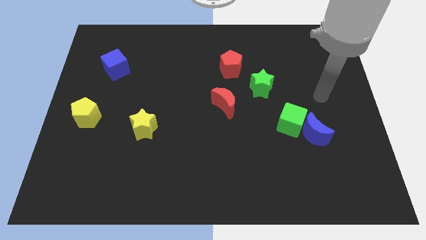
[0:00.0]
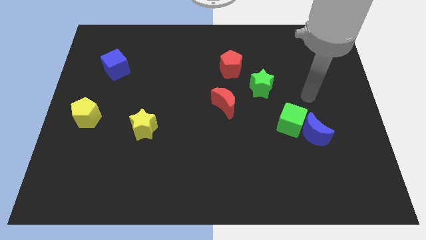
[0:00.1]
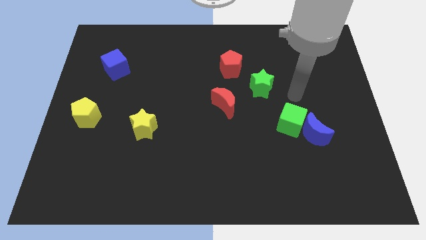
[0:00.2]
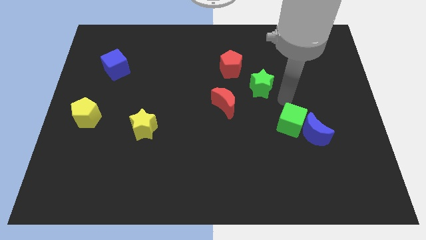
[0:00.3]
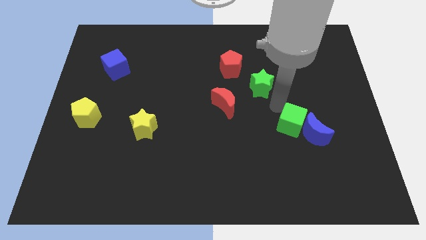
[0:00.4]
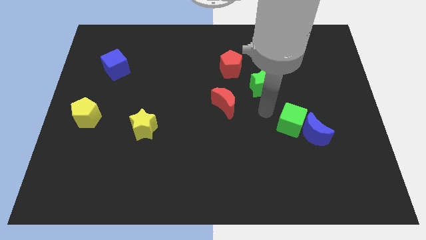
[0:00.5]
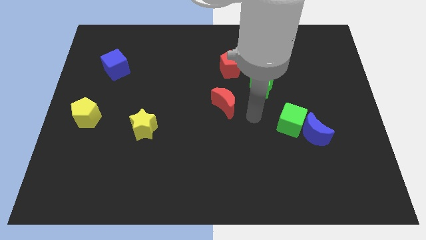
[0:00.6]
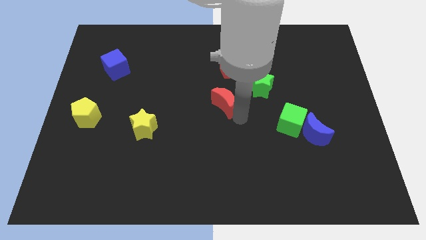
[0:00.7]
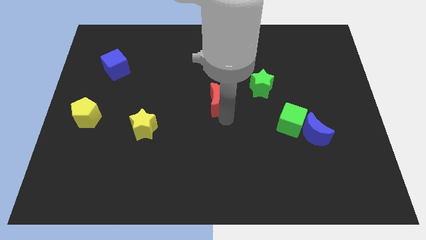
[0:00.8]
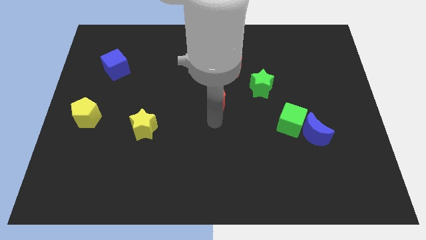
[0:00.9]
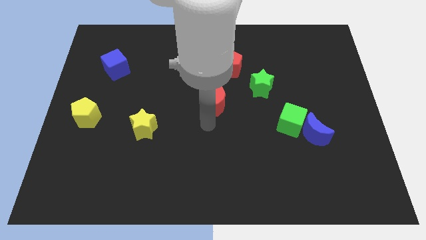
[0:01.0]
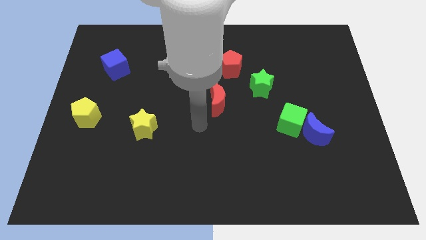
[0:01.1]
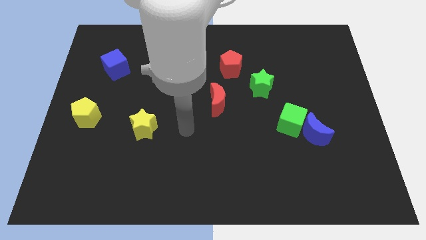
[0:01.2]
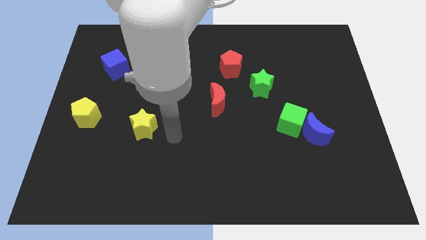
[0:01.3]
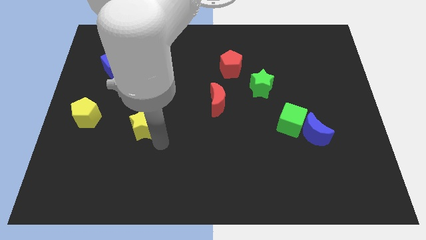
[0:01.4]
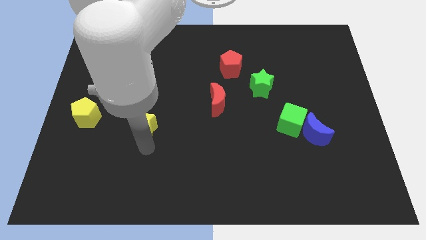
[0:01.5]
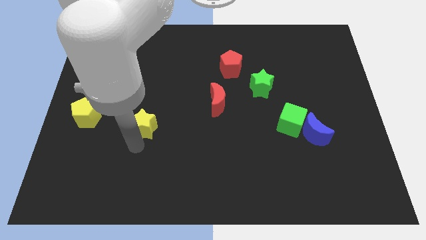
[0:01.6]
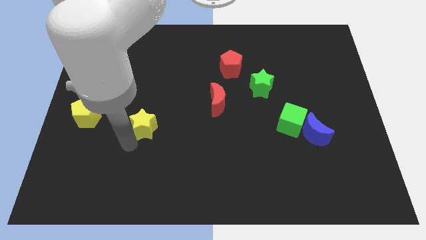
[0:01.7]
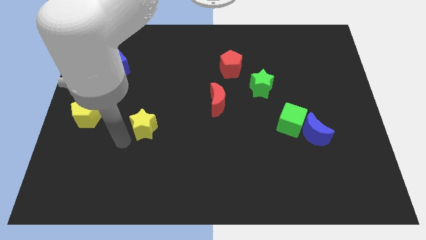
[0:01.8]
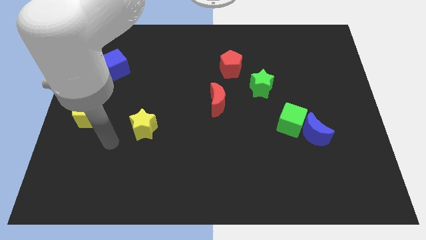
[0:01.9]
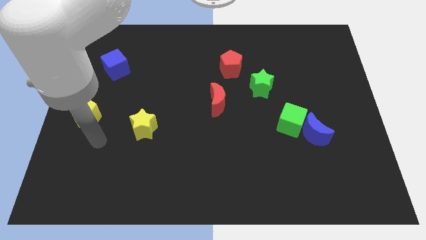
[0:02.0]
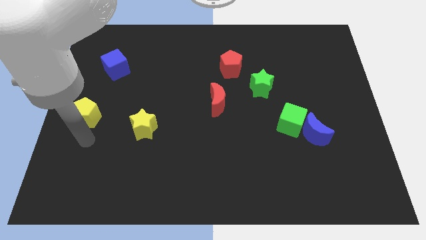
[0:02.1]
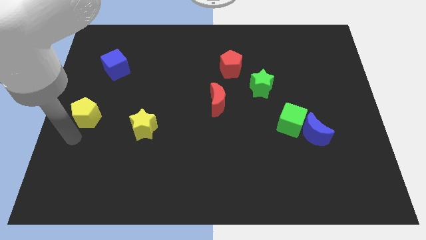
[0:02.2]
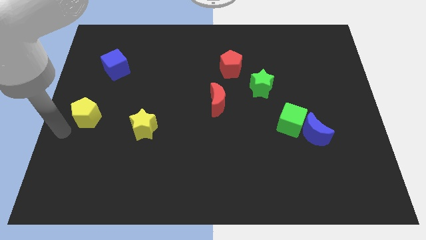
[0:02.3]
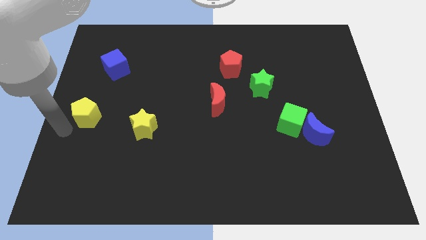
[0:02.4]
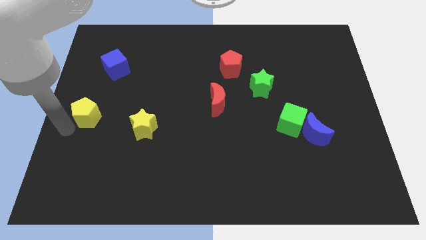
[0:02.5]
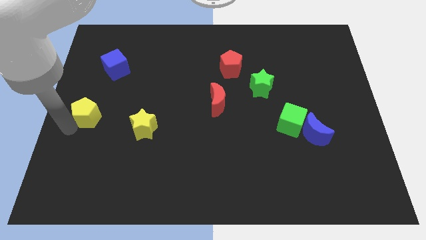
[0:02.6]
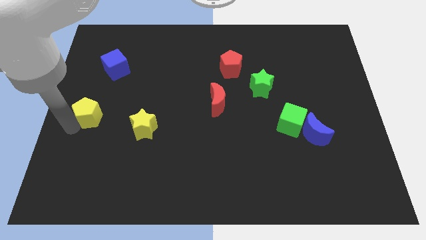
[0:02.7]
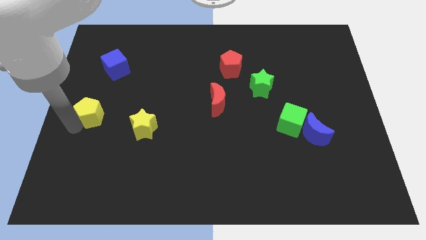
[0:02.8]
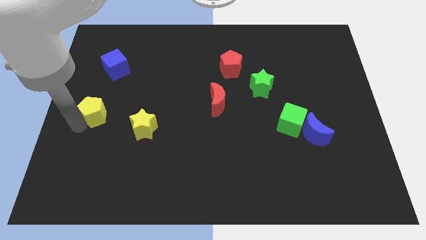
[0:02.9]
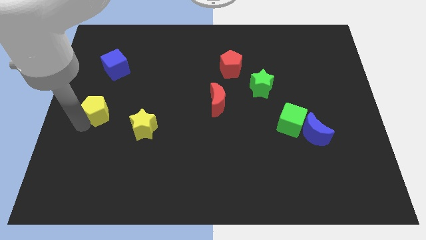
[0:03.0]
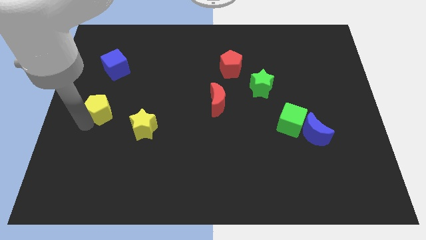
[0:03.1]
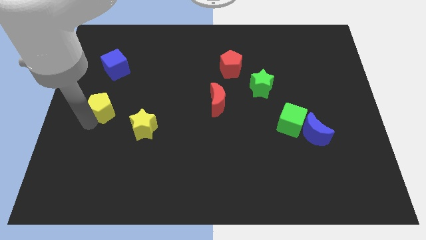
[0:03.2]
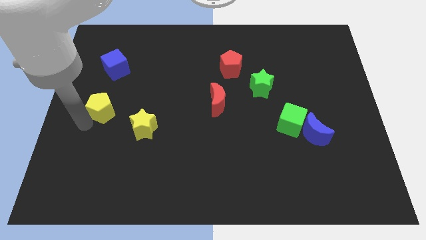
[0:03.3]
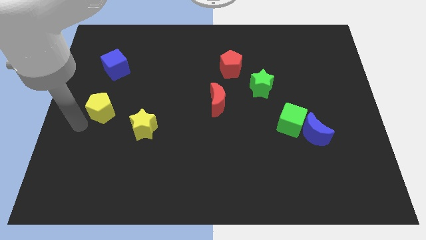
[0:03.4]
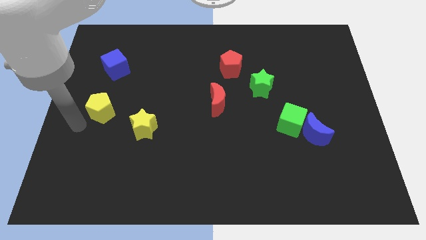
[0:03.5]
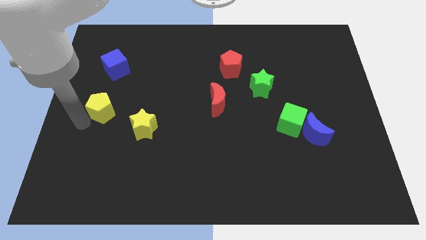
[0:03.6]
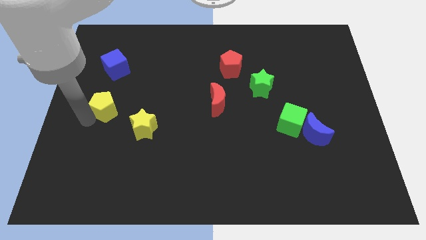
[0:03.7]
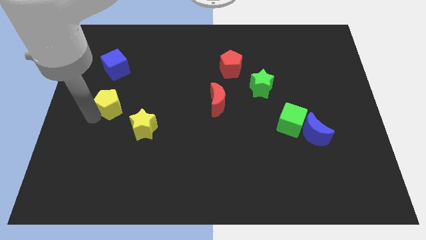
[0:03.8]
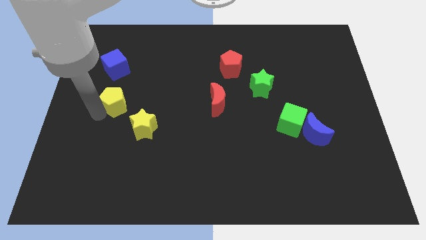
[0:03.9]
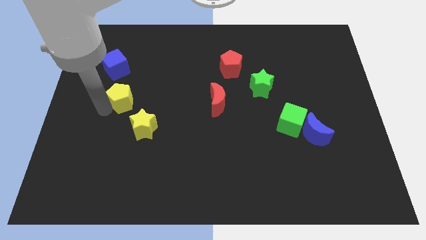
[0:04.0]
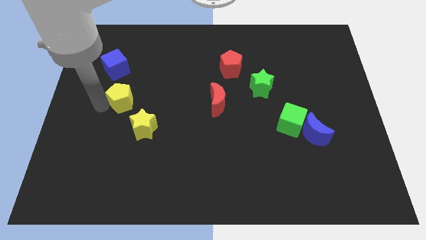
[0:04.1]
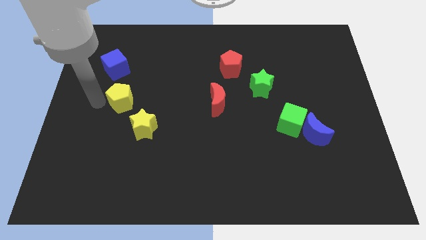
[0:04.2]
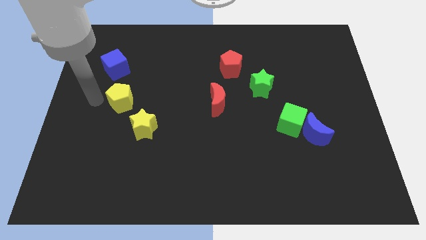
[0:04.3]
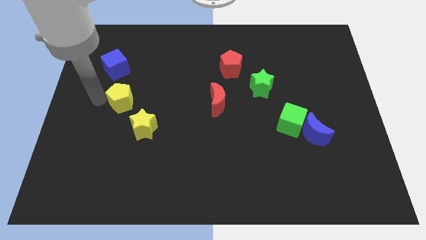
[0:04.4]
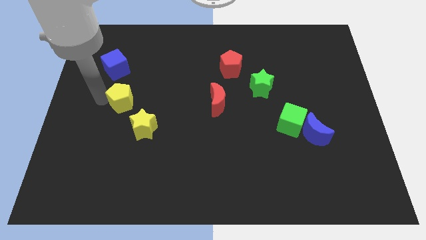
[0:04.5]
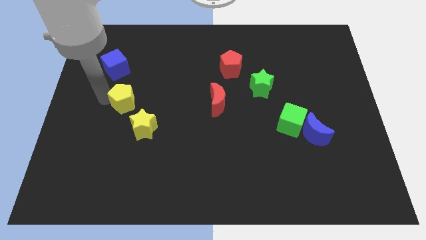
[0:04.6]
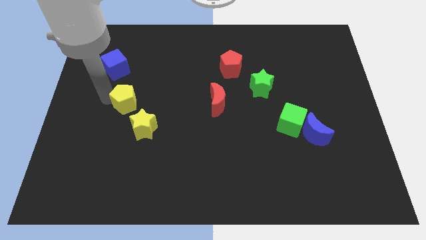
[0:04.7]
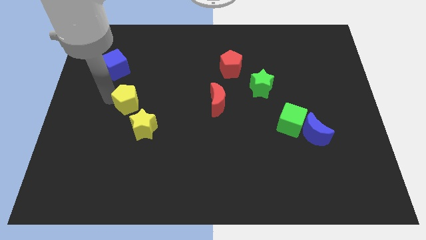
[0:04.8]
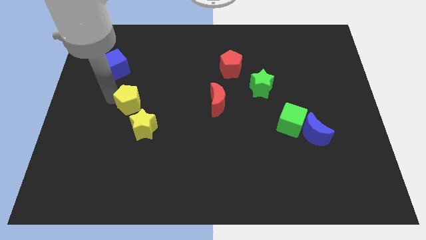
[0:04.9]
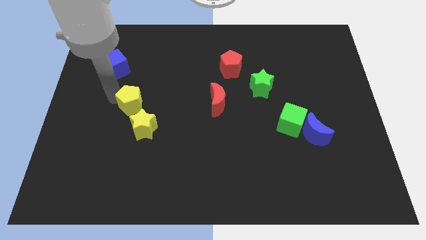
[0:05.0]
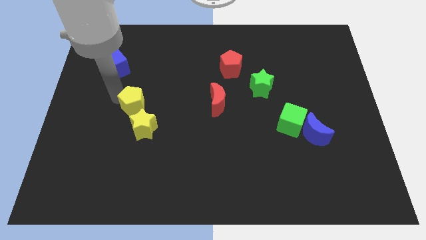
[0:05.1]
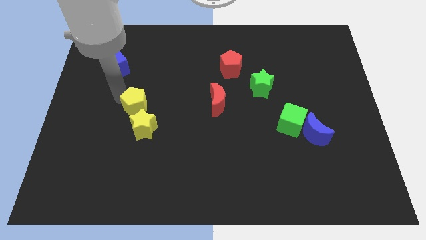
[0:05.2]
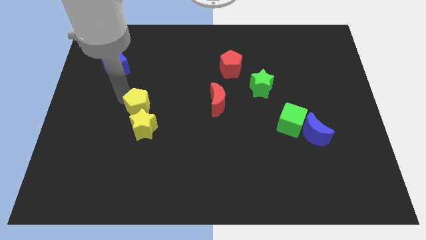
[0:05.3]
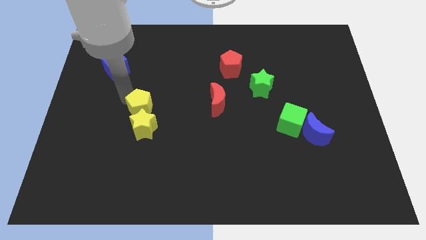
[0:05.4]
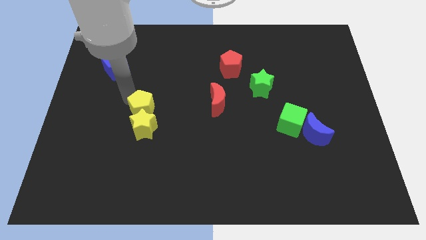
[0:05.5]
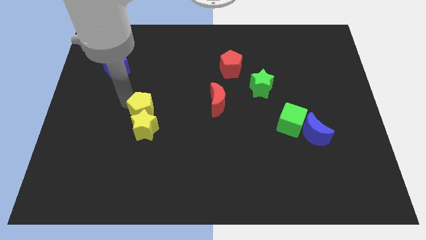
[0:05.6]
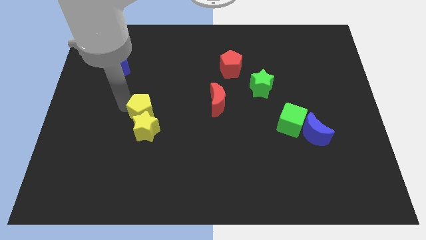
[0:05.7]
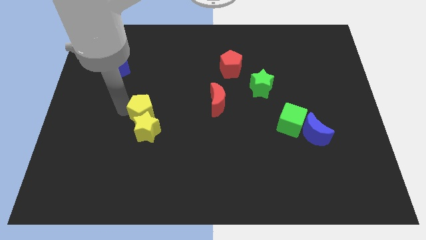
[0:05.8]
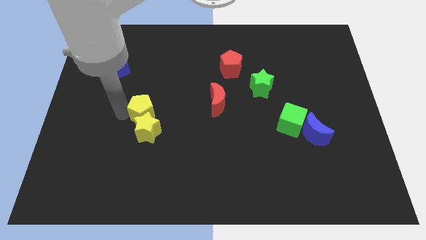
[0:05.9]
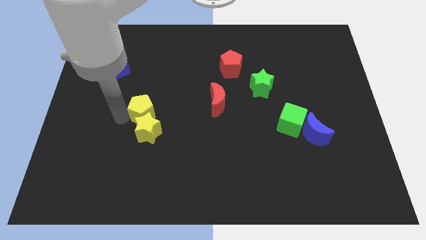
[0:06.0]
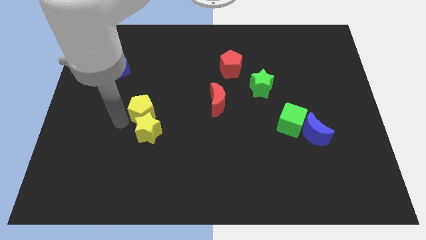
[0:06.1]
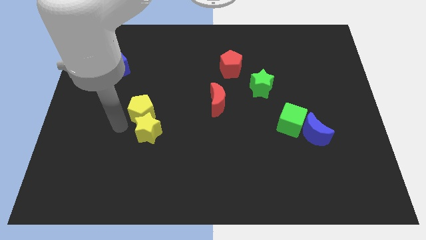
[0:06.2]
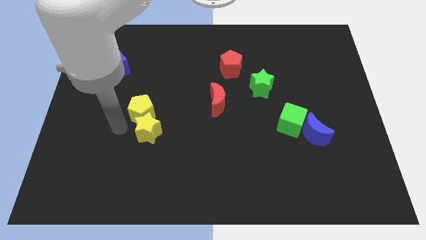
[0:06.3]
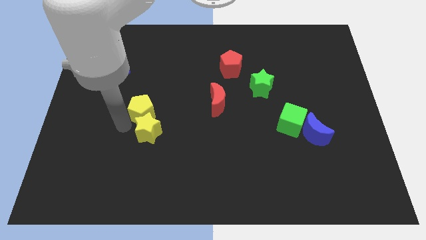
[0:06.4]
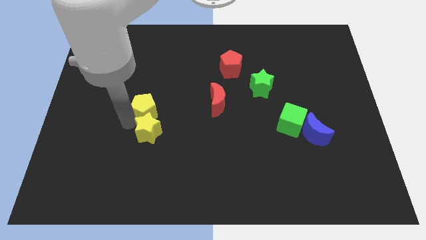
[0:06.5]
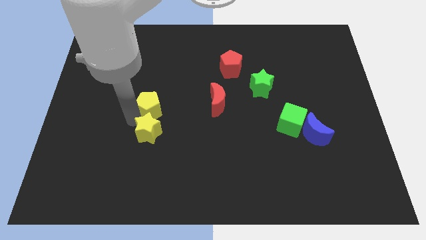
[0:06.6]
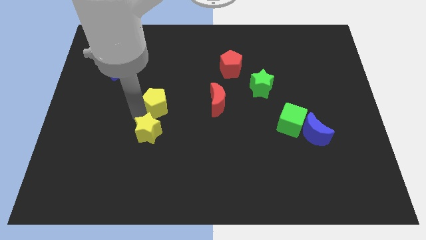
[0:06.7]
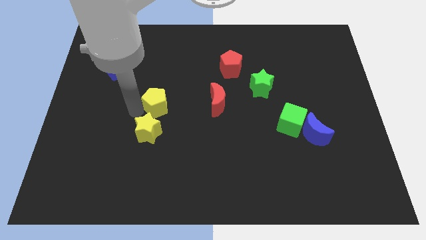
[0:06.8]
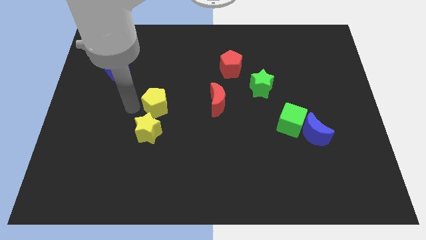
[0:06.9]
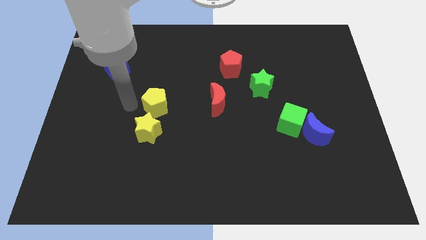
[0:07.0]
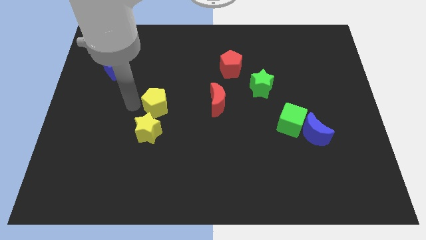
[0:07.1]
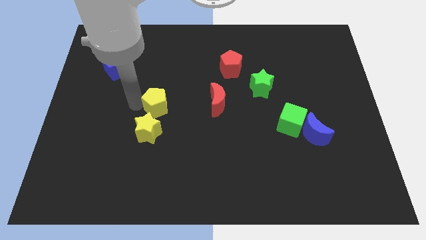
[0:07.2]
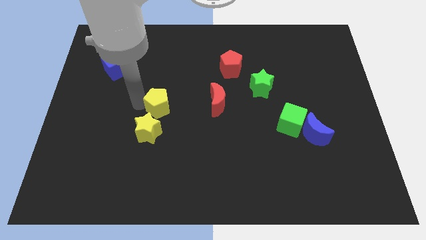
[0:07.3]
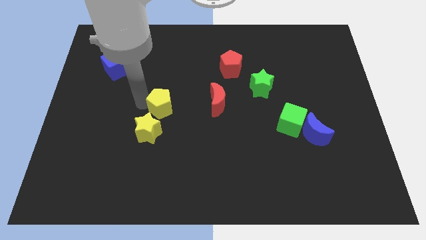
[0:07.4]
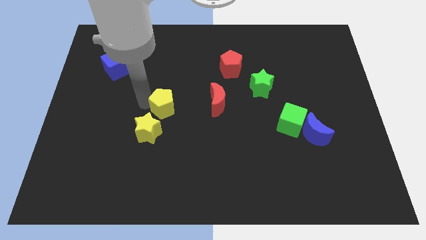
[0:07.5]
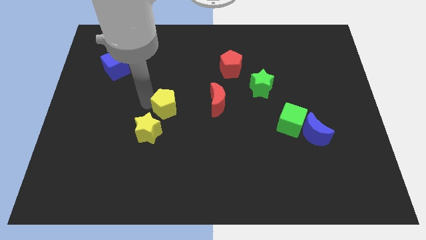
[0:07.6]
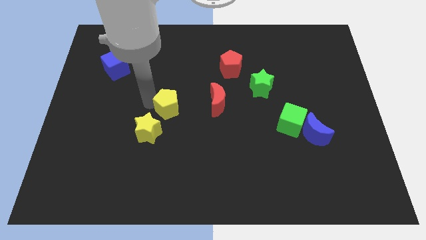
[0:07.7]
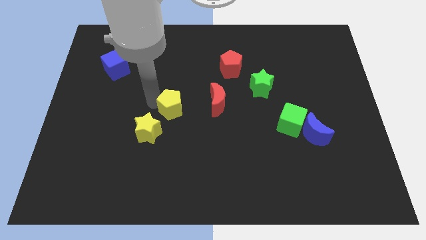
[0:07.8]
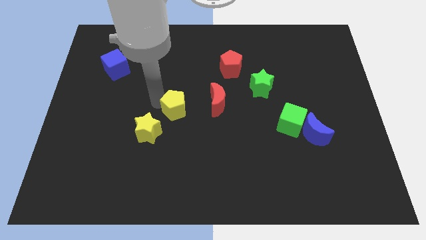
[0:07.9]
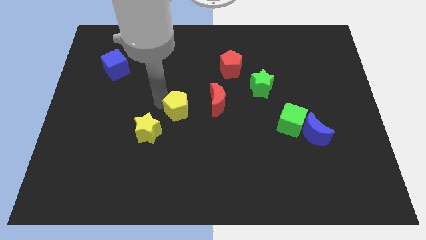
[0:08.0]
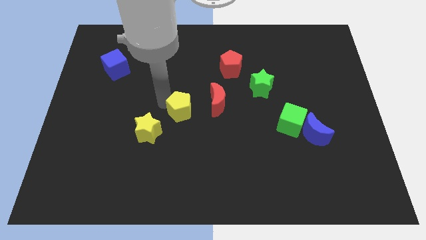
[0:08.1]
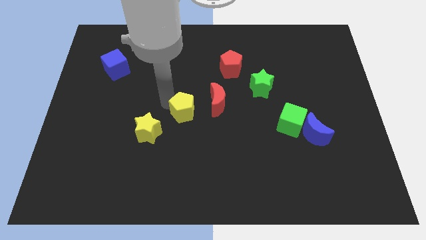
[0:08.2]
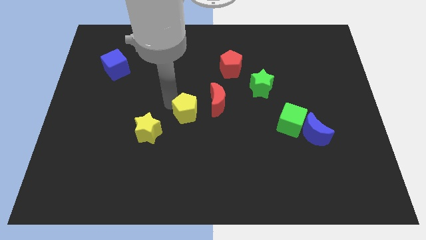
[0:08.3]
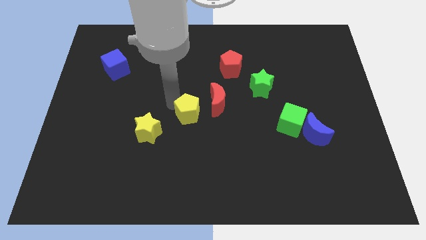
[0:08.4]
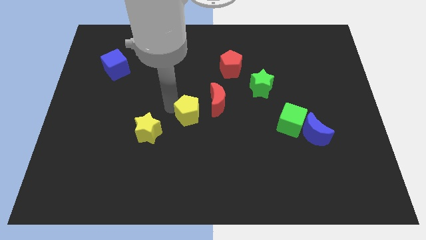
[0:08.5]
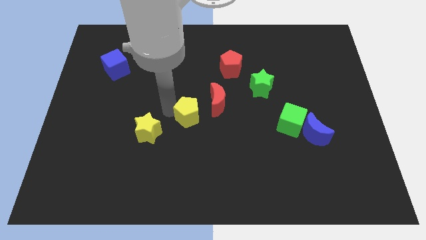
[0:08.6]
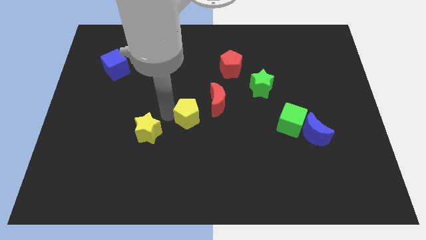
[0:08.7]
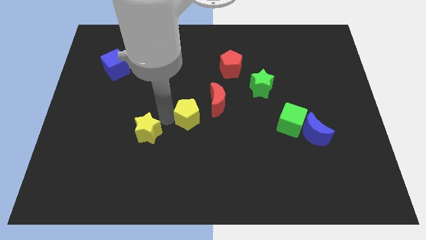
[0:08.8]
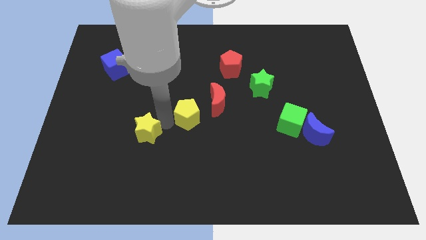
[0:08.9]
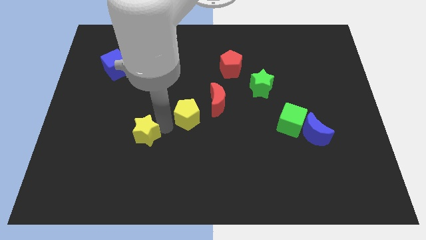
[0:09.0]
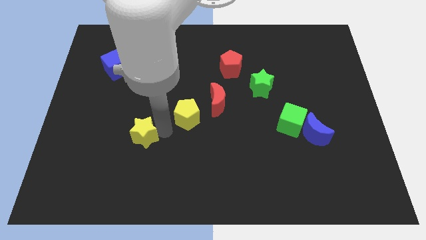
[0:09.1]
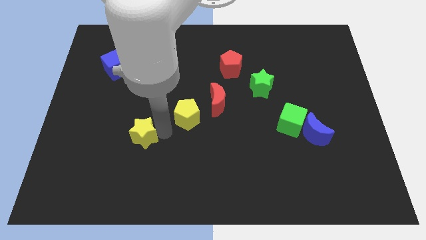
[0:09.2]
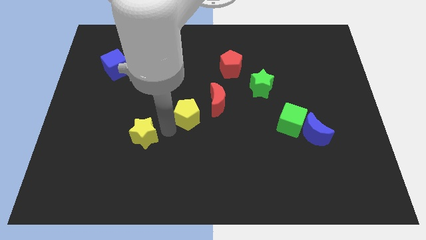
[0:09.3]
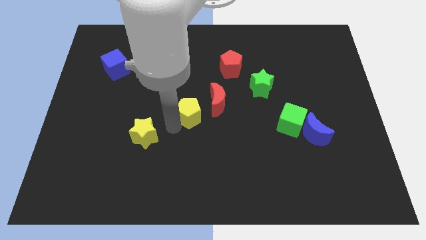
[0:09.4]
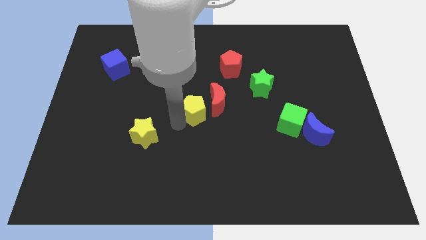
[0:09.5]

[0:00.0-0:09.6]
push the yellow pentagon to the red moon
